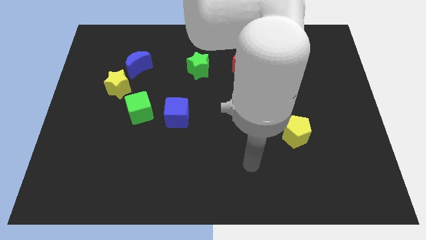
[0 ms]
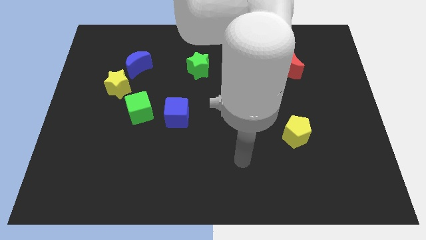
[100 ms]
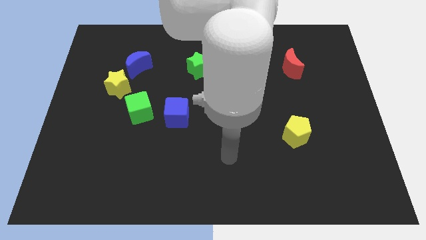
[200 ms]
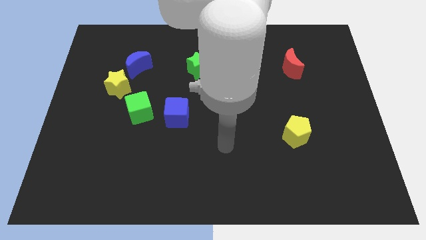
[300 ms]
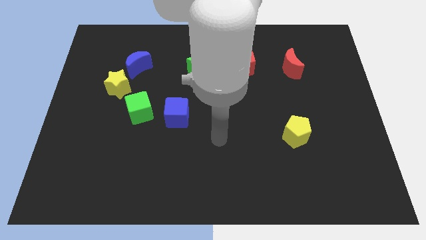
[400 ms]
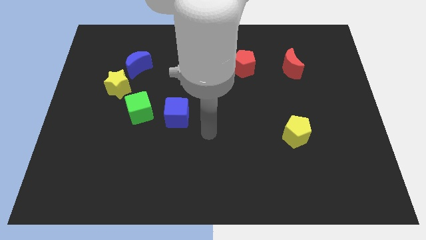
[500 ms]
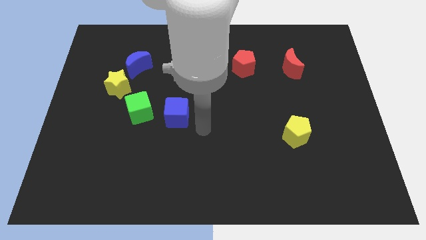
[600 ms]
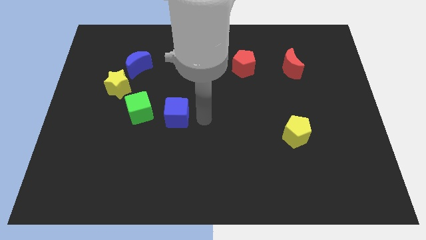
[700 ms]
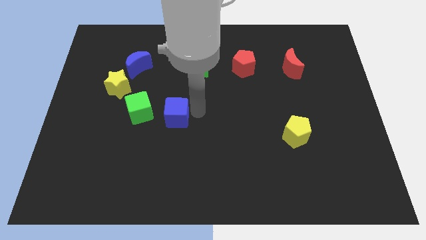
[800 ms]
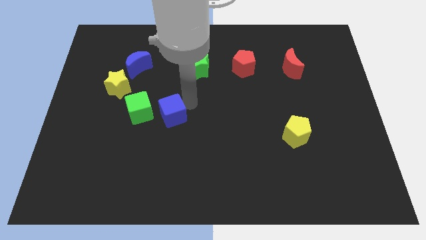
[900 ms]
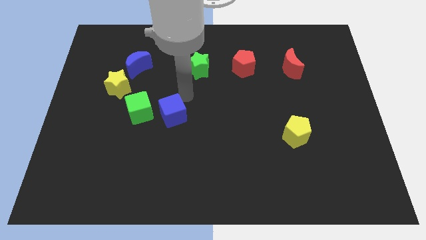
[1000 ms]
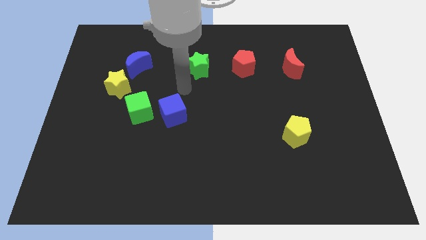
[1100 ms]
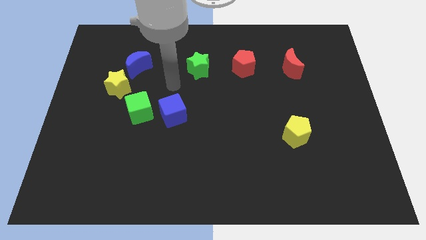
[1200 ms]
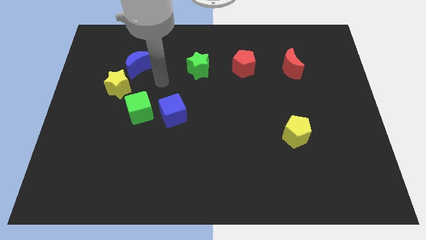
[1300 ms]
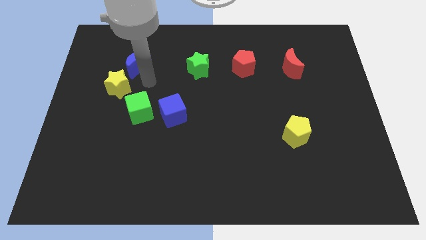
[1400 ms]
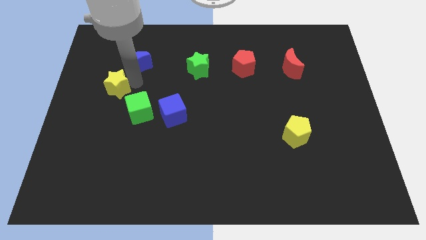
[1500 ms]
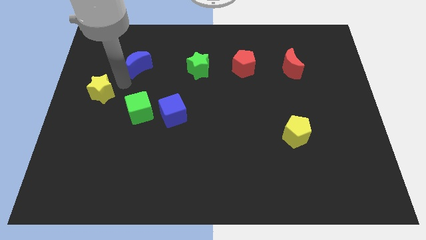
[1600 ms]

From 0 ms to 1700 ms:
move the blue moon away from the yellow star

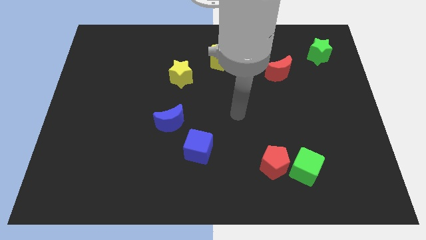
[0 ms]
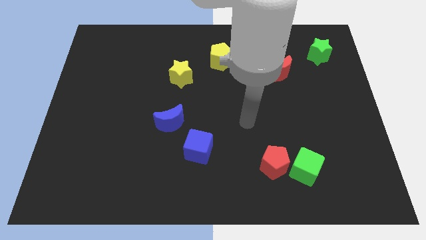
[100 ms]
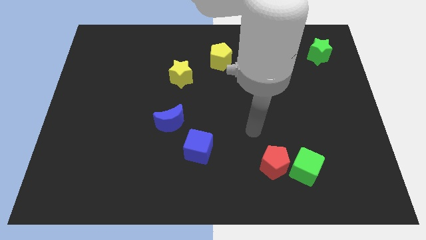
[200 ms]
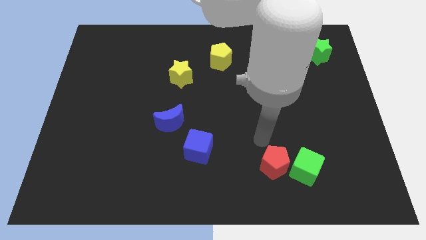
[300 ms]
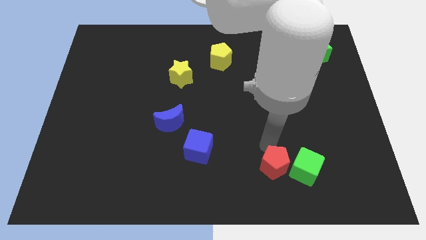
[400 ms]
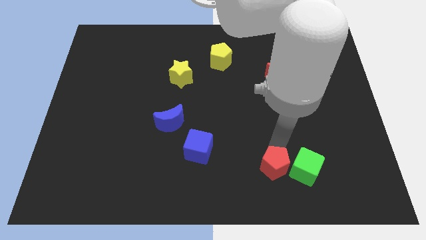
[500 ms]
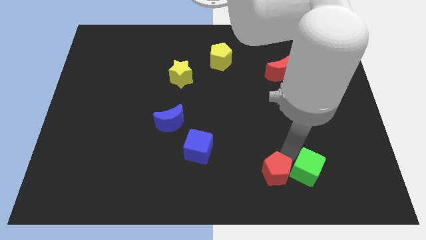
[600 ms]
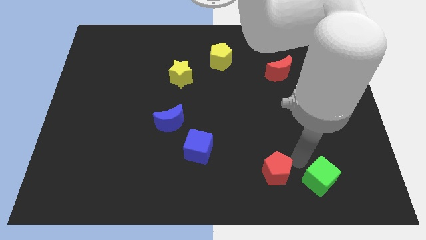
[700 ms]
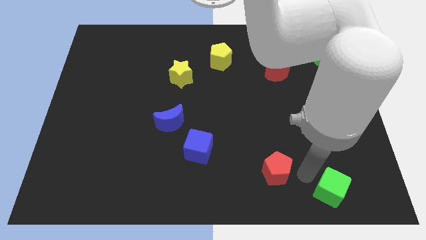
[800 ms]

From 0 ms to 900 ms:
pull the red pentagon apart from the green cube

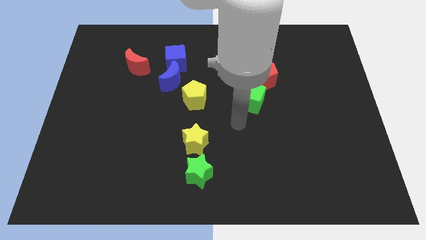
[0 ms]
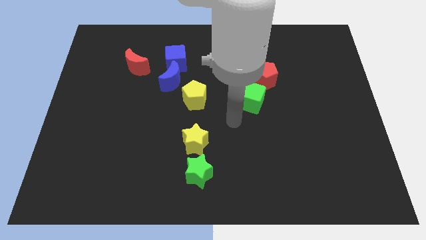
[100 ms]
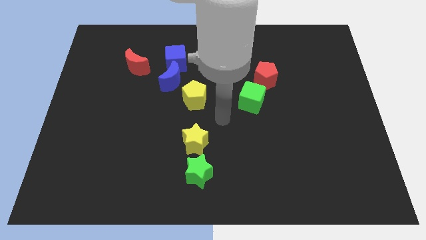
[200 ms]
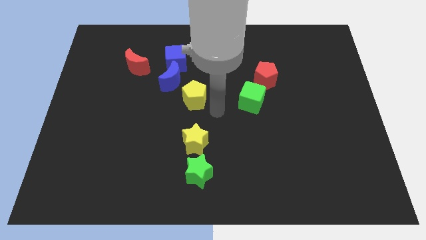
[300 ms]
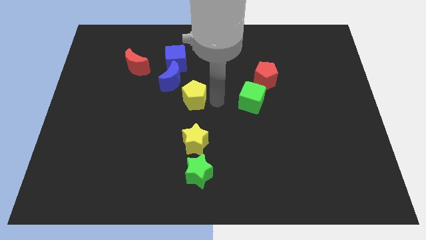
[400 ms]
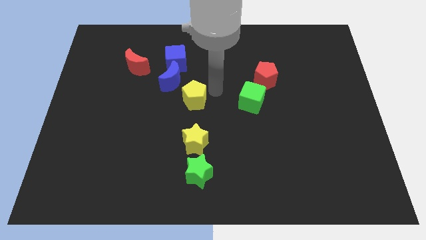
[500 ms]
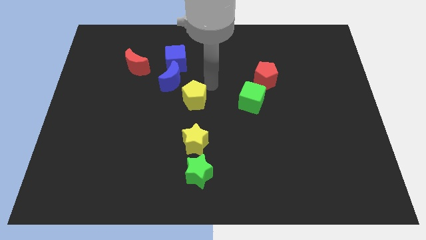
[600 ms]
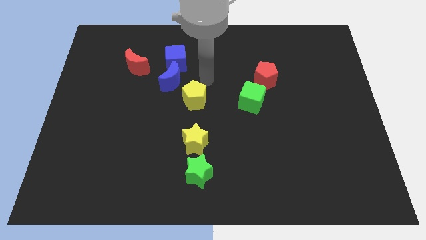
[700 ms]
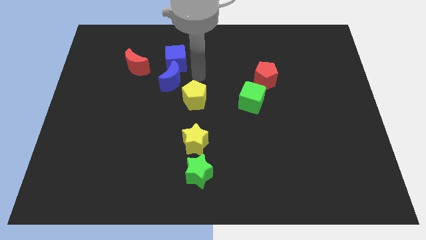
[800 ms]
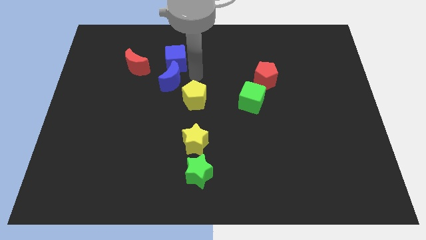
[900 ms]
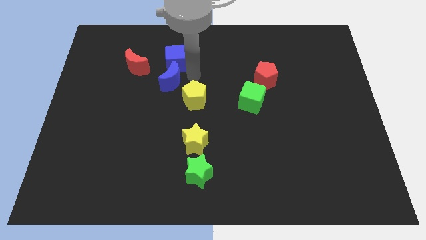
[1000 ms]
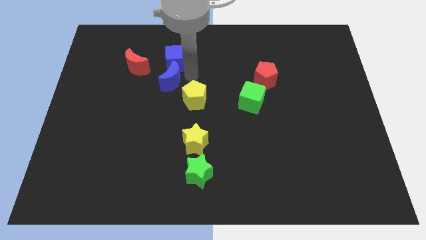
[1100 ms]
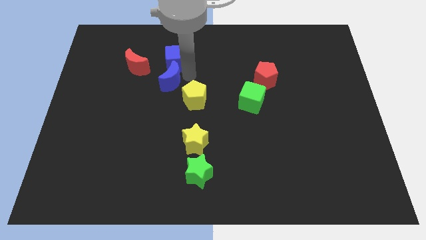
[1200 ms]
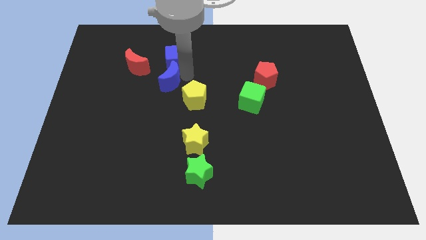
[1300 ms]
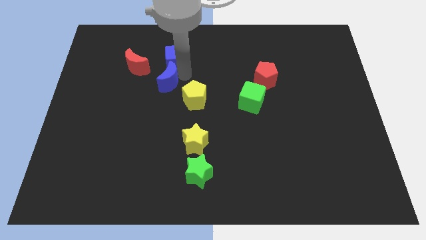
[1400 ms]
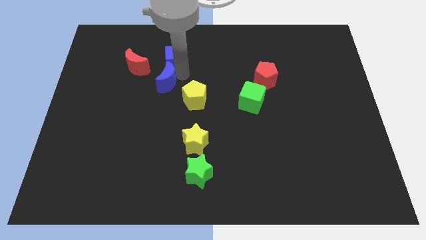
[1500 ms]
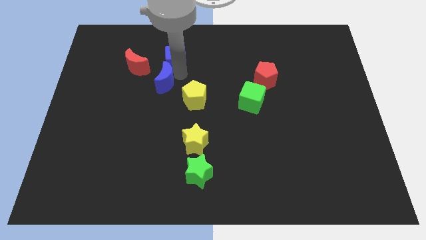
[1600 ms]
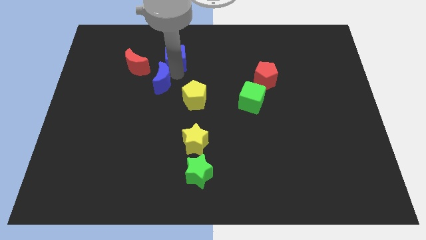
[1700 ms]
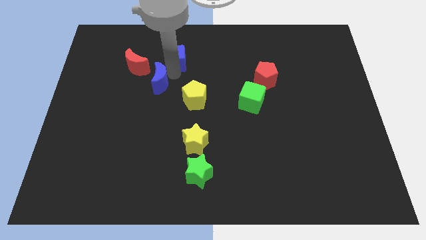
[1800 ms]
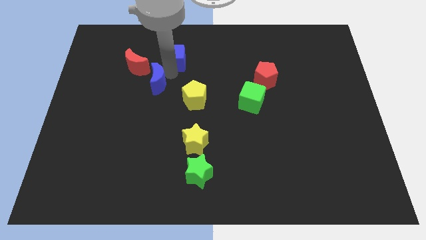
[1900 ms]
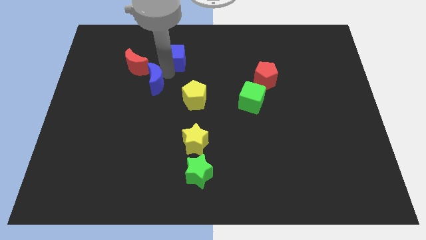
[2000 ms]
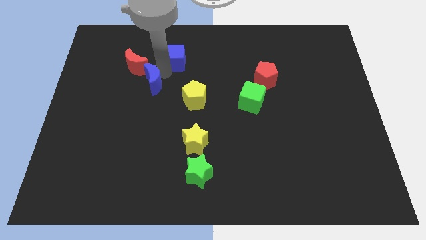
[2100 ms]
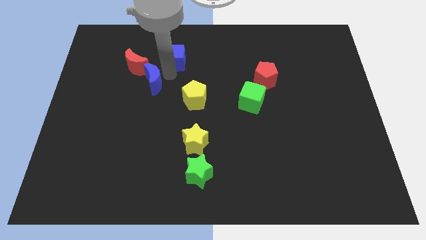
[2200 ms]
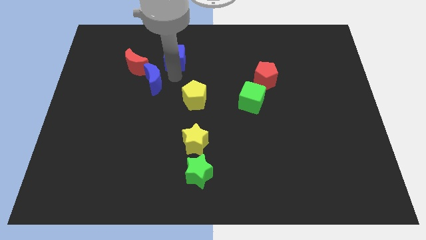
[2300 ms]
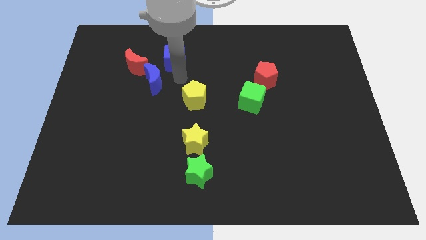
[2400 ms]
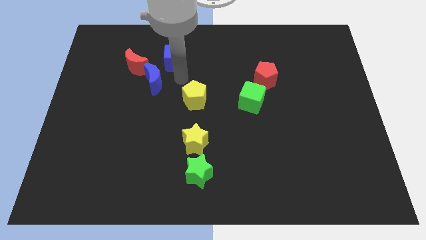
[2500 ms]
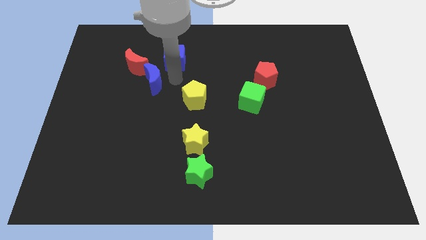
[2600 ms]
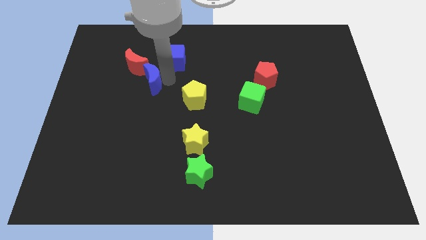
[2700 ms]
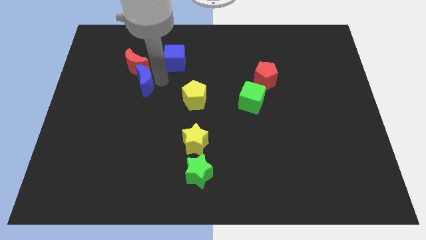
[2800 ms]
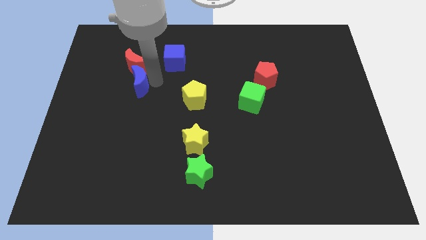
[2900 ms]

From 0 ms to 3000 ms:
separate the blue moon from the blue cube and yellow pentagon

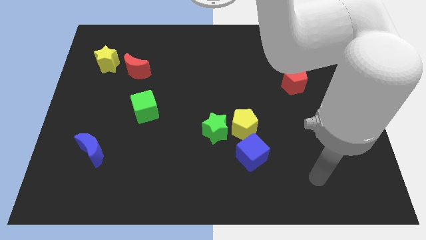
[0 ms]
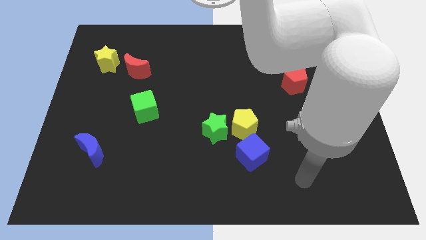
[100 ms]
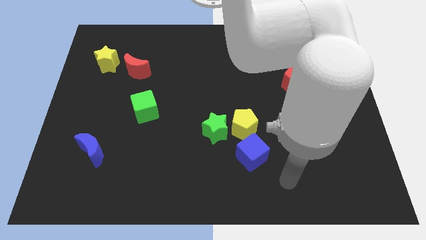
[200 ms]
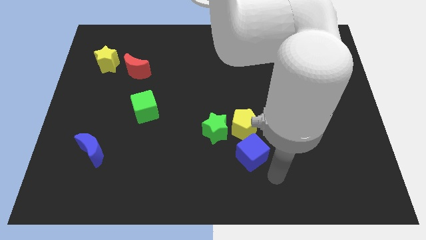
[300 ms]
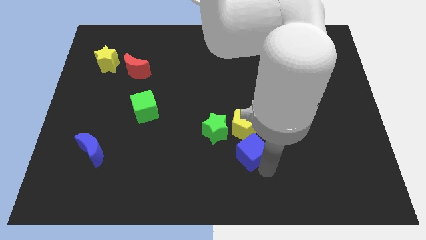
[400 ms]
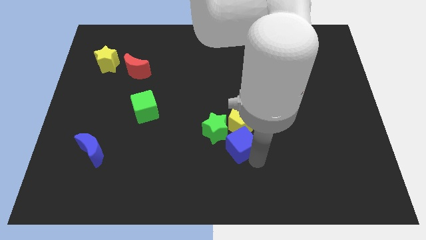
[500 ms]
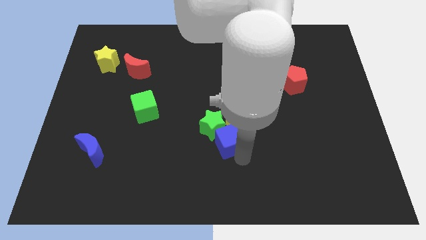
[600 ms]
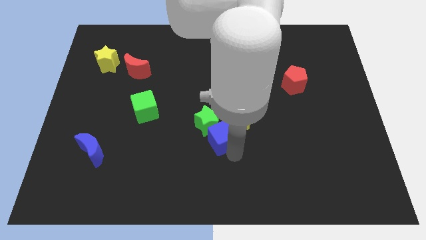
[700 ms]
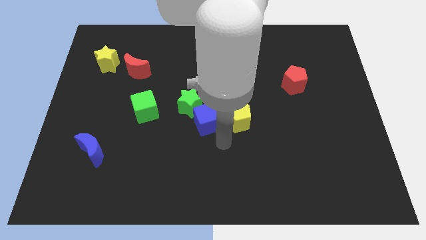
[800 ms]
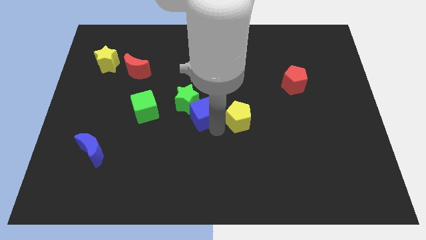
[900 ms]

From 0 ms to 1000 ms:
pull the yellow pentagon apart from the green star and blue cube

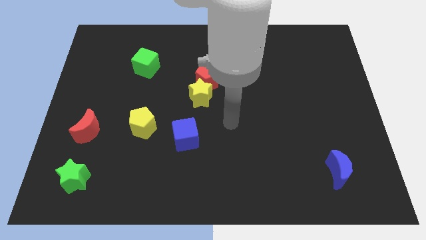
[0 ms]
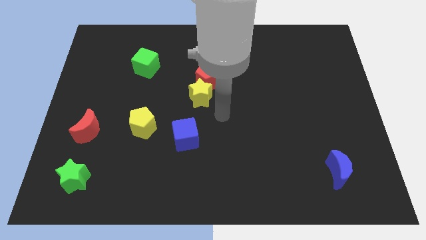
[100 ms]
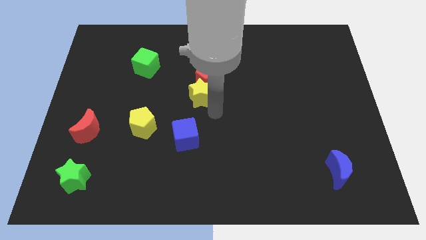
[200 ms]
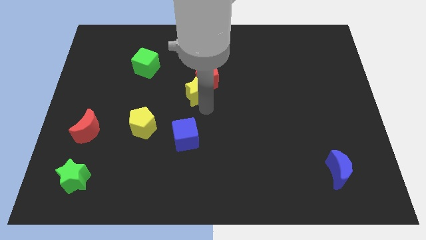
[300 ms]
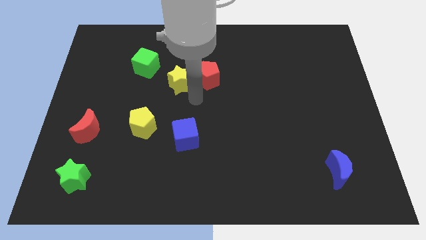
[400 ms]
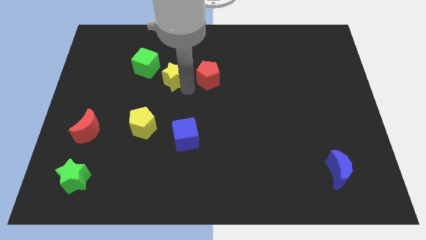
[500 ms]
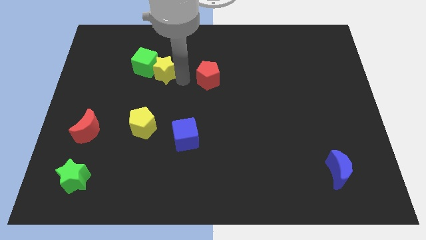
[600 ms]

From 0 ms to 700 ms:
move the red pentagon away from the yellow star

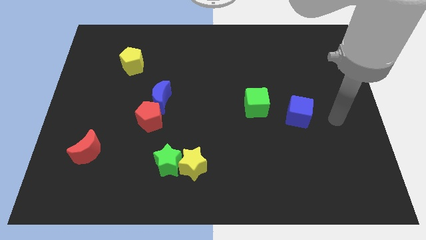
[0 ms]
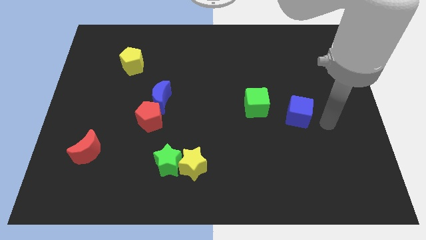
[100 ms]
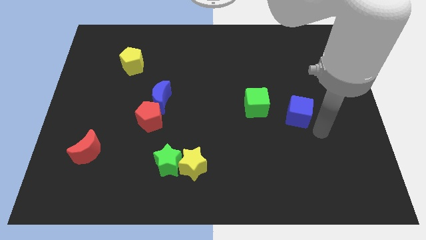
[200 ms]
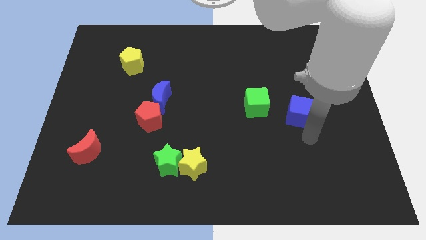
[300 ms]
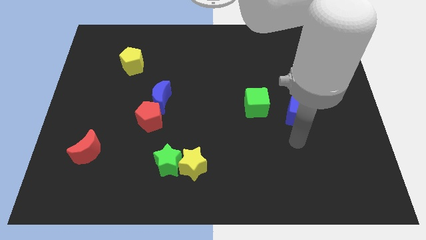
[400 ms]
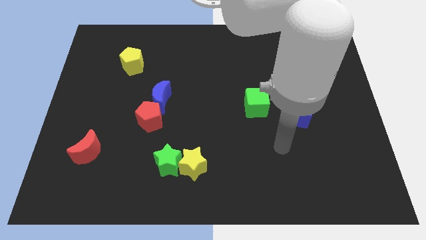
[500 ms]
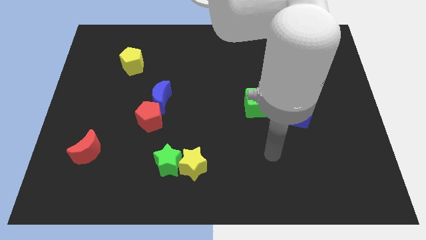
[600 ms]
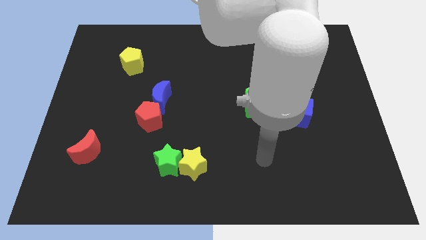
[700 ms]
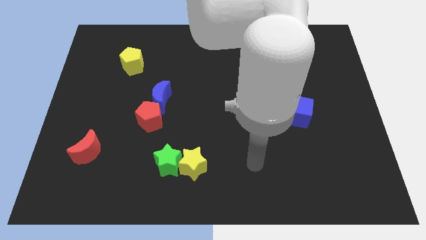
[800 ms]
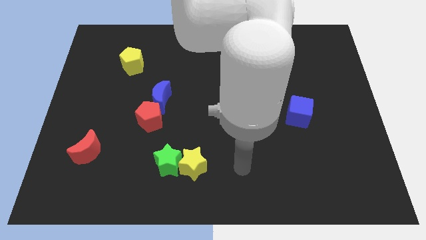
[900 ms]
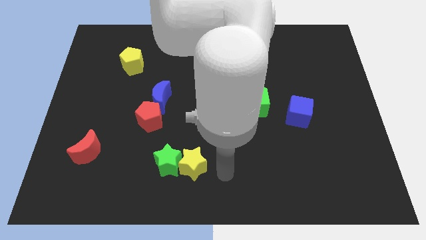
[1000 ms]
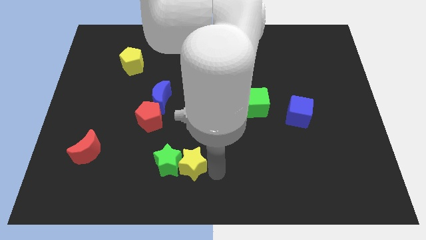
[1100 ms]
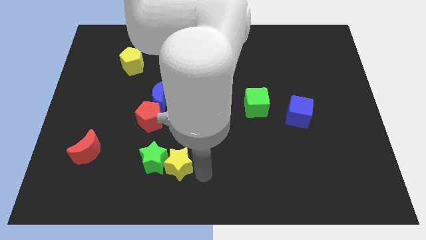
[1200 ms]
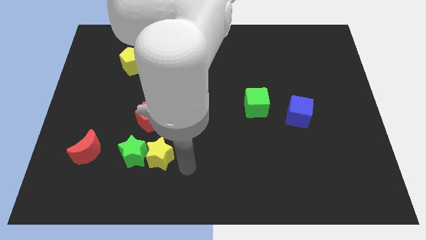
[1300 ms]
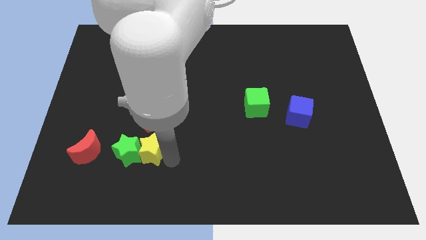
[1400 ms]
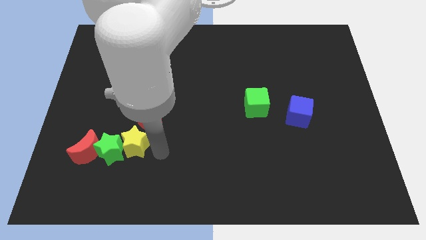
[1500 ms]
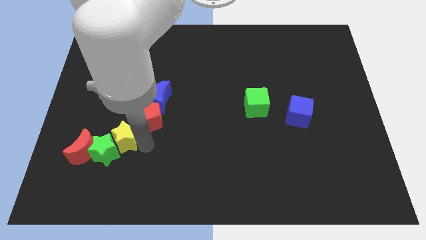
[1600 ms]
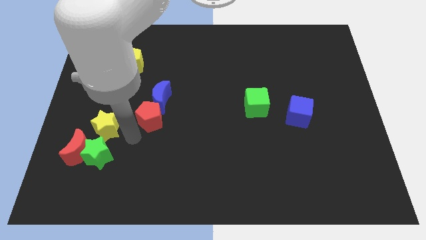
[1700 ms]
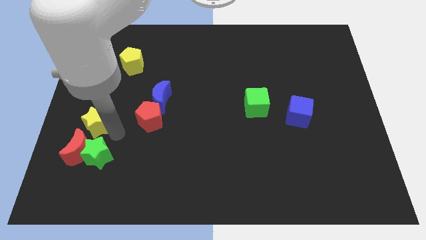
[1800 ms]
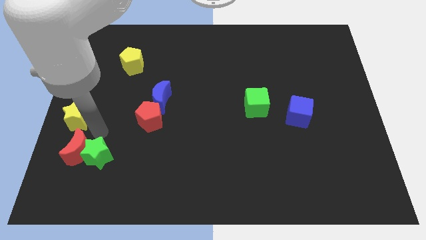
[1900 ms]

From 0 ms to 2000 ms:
pull the green star apart from the yellow star

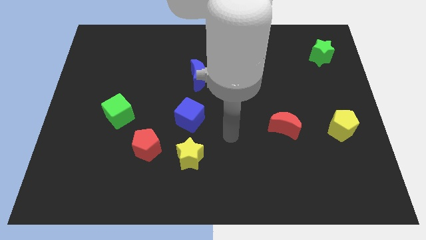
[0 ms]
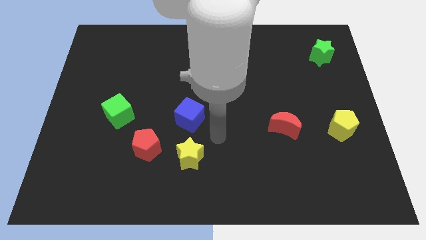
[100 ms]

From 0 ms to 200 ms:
separate the red pentagon from the yellow star
